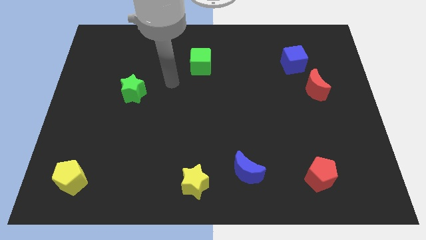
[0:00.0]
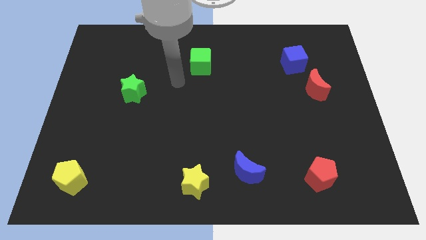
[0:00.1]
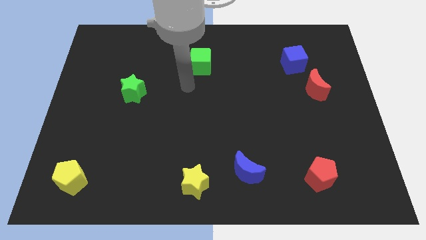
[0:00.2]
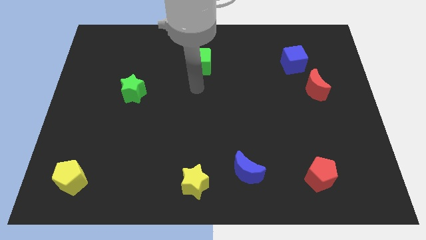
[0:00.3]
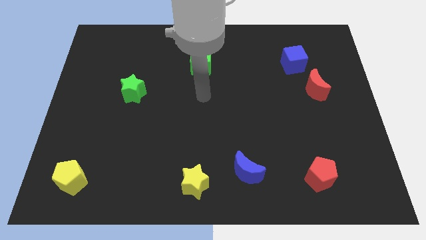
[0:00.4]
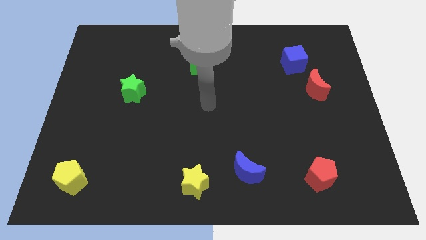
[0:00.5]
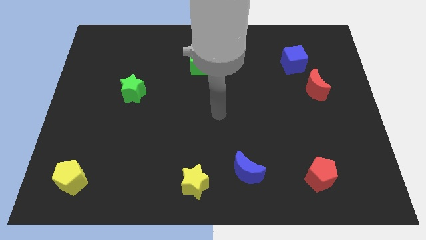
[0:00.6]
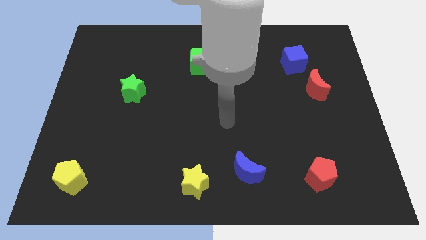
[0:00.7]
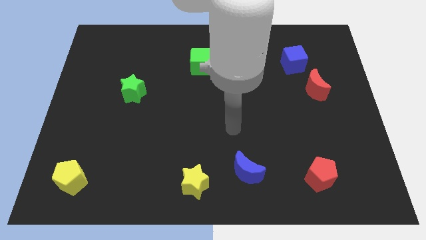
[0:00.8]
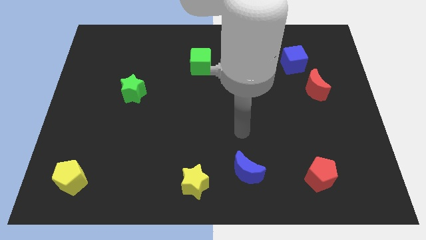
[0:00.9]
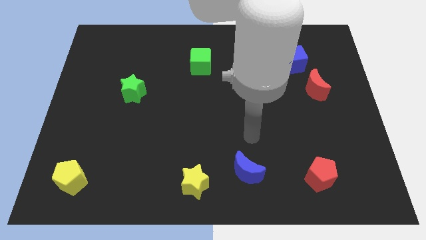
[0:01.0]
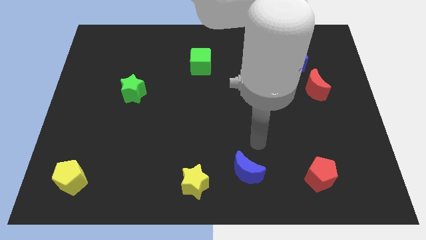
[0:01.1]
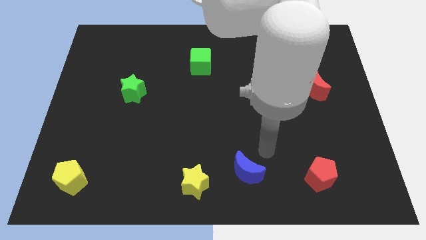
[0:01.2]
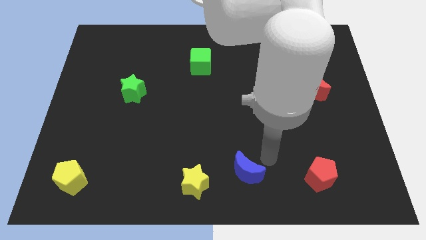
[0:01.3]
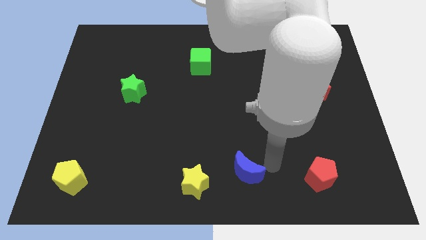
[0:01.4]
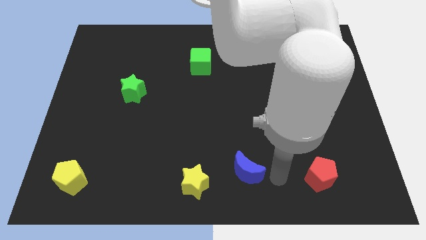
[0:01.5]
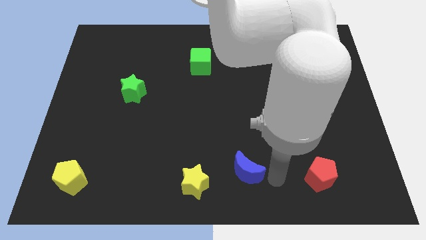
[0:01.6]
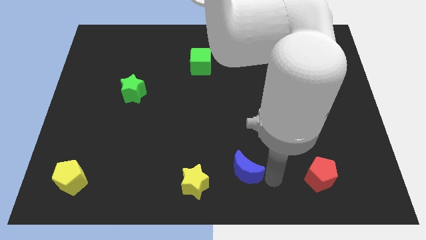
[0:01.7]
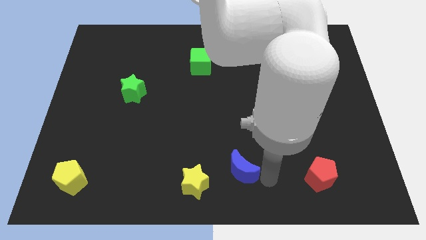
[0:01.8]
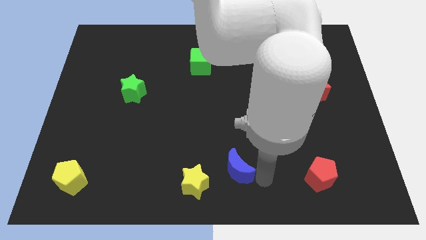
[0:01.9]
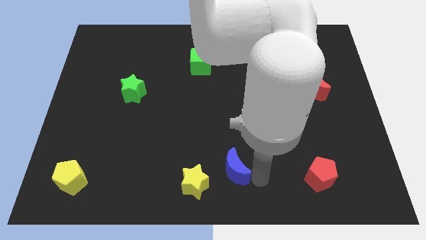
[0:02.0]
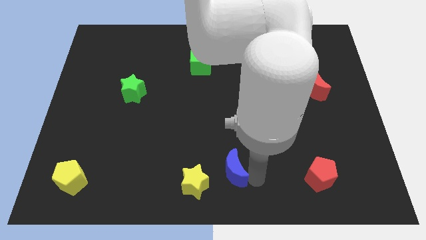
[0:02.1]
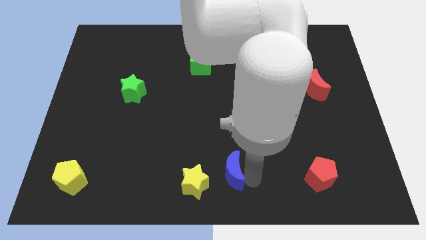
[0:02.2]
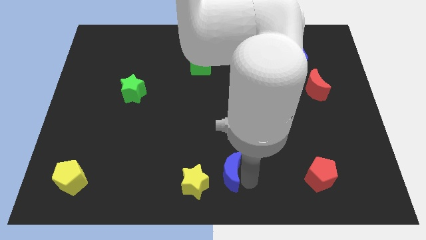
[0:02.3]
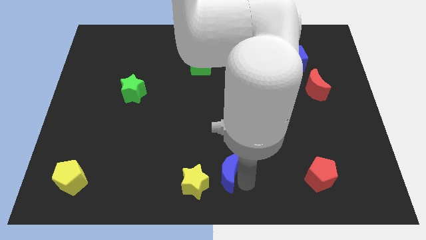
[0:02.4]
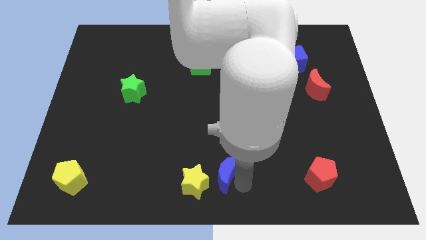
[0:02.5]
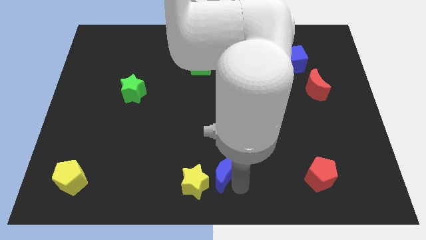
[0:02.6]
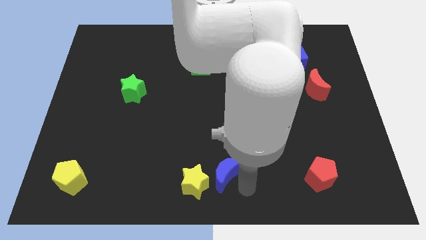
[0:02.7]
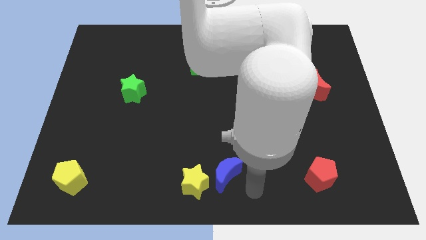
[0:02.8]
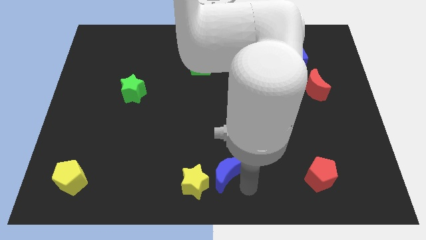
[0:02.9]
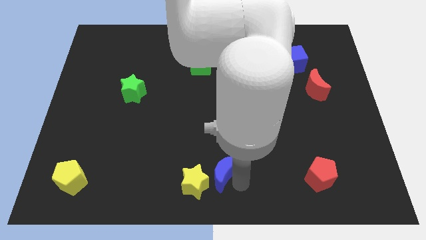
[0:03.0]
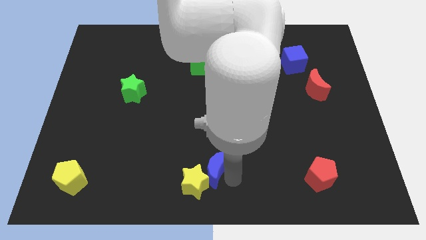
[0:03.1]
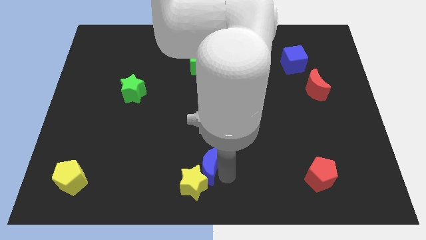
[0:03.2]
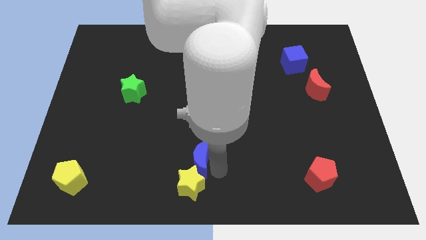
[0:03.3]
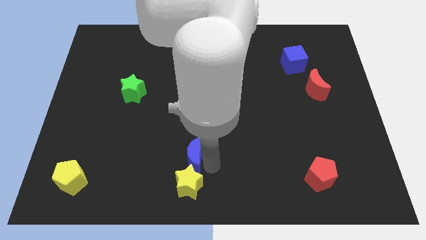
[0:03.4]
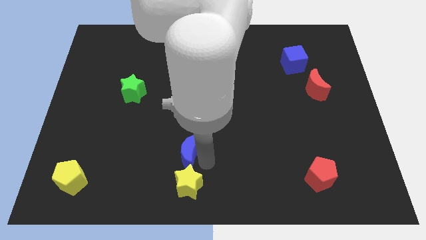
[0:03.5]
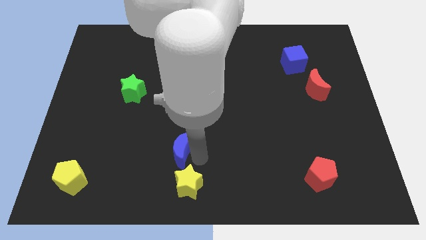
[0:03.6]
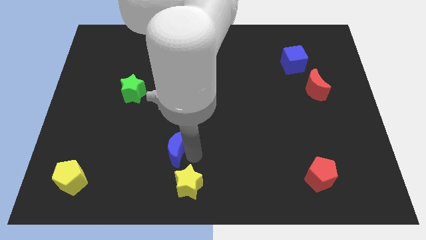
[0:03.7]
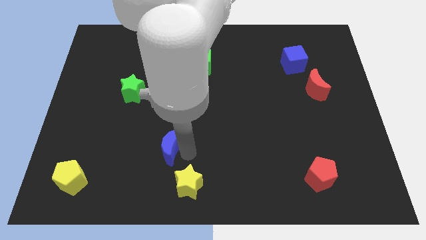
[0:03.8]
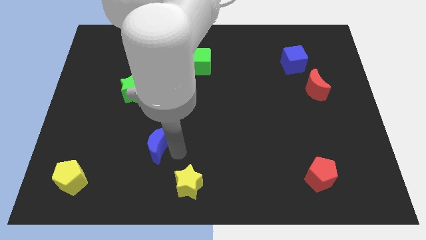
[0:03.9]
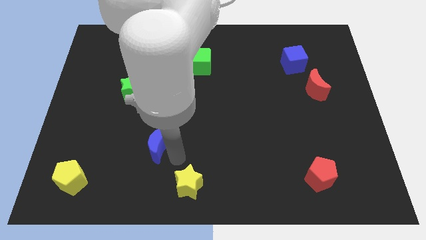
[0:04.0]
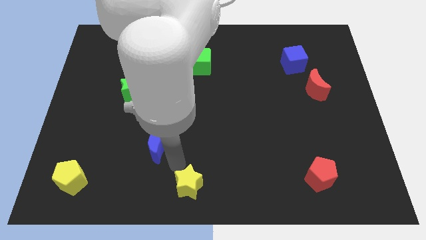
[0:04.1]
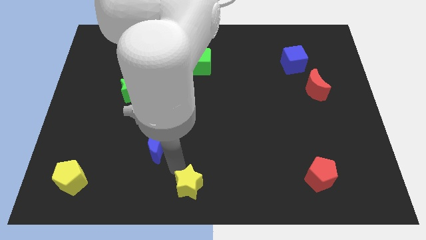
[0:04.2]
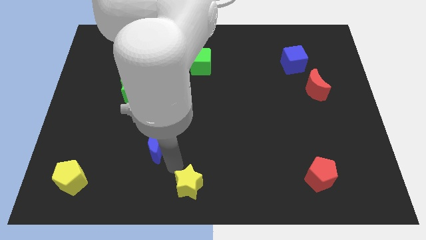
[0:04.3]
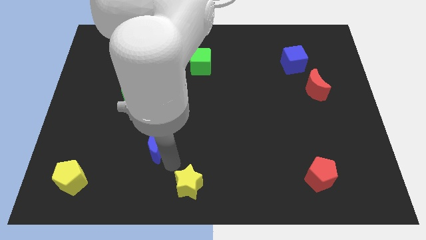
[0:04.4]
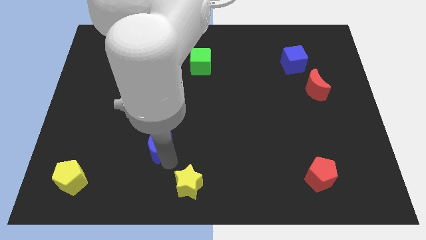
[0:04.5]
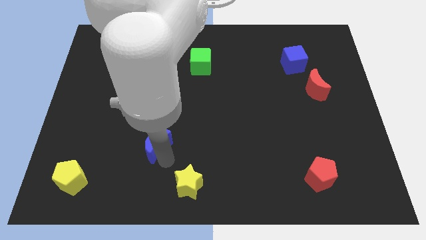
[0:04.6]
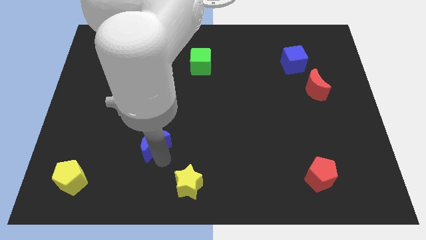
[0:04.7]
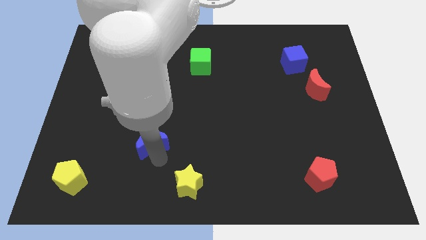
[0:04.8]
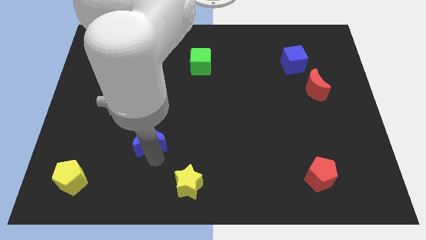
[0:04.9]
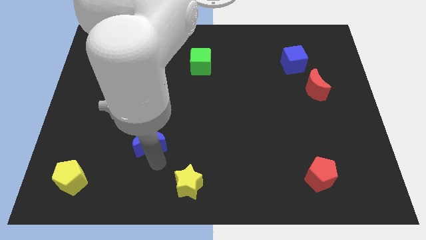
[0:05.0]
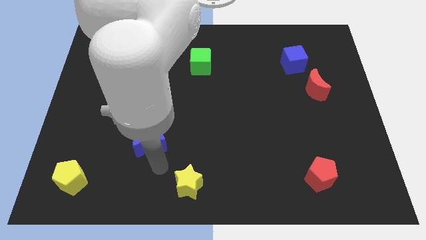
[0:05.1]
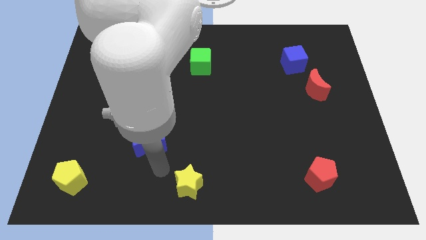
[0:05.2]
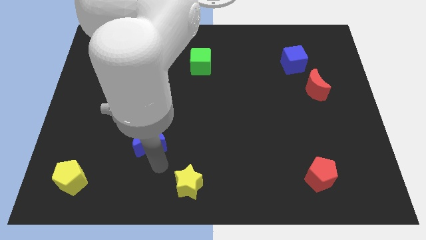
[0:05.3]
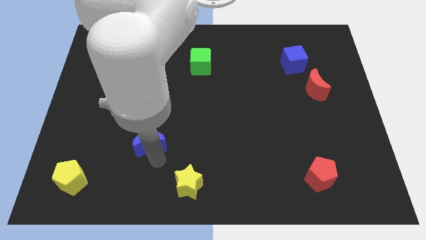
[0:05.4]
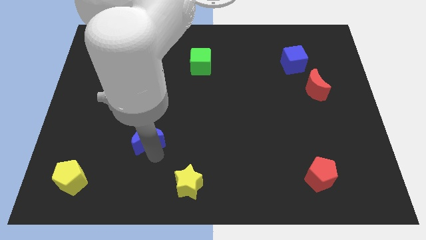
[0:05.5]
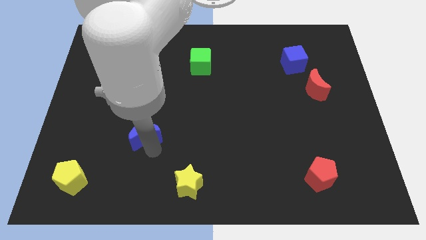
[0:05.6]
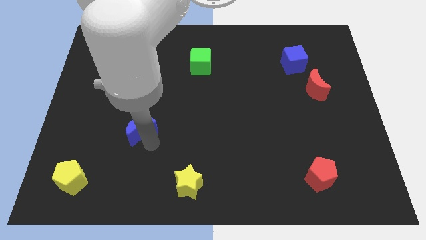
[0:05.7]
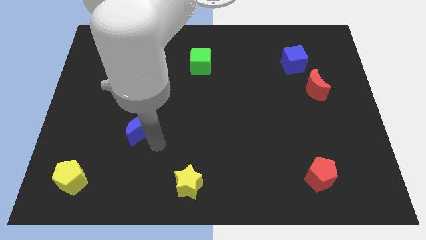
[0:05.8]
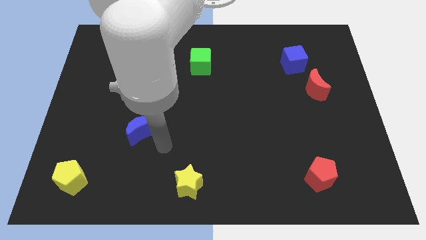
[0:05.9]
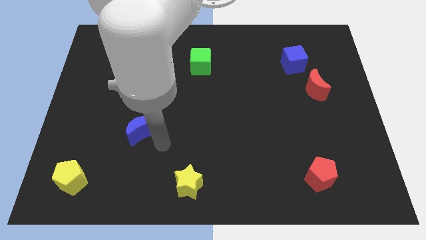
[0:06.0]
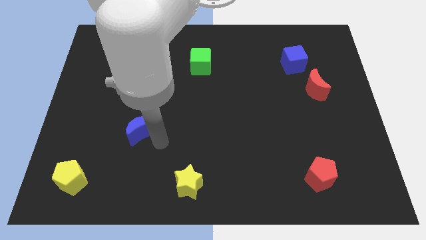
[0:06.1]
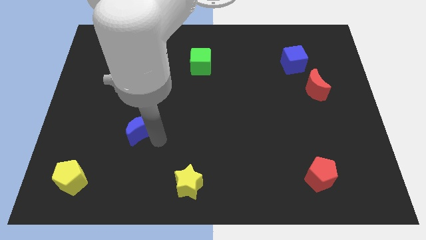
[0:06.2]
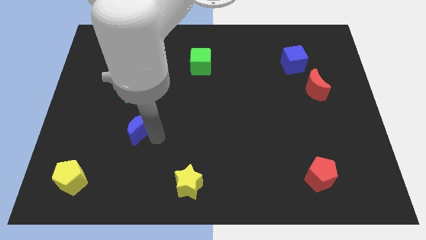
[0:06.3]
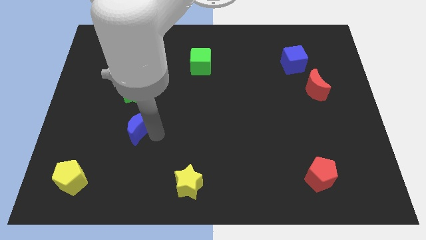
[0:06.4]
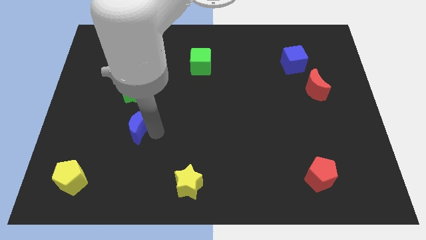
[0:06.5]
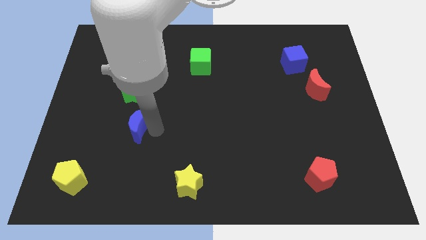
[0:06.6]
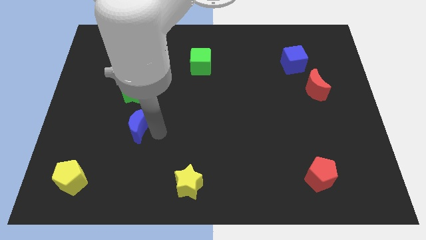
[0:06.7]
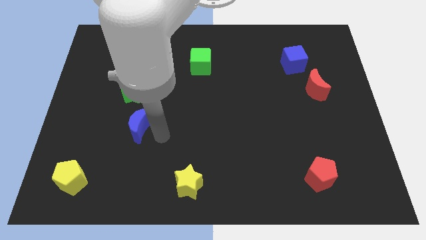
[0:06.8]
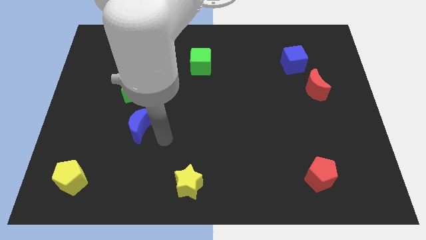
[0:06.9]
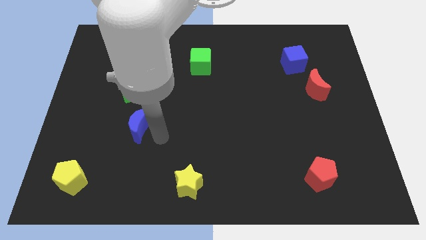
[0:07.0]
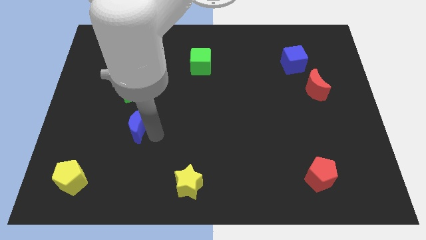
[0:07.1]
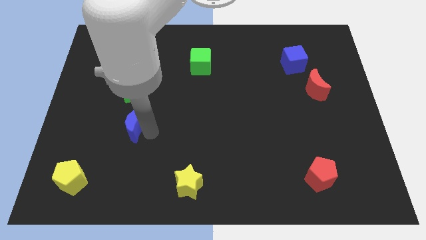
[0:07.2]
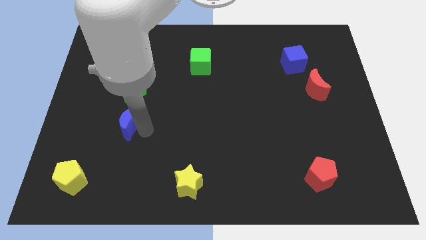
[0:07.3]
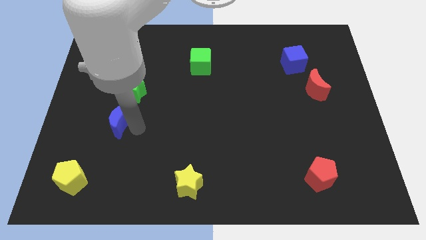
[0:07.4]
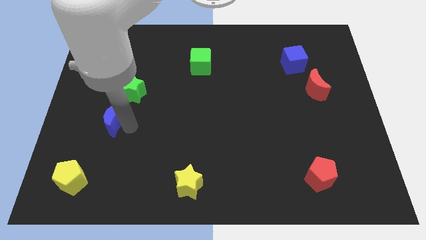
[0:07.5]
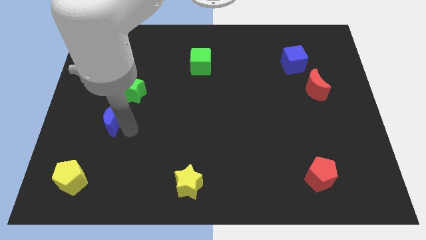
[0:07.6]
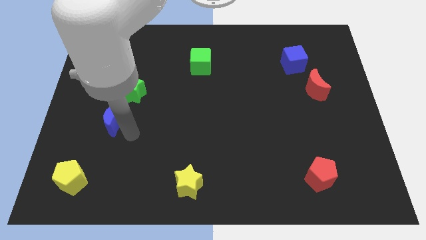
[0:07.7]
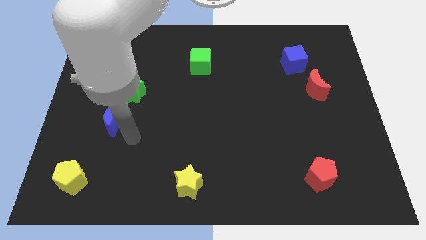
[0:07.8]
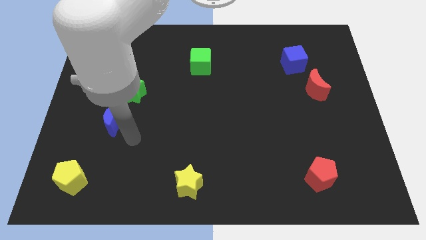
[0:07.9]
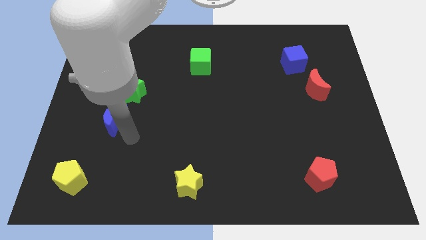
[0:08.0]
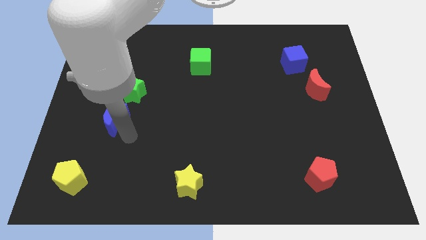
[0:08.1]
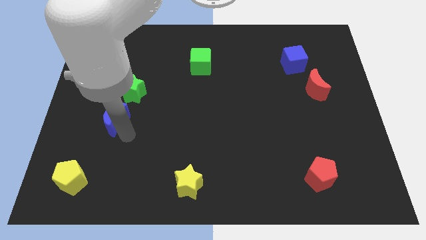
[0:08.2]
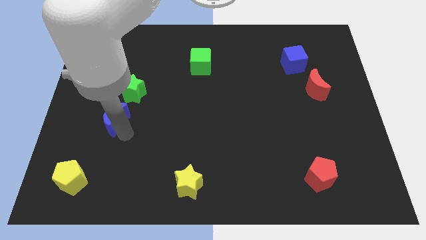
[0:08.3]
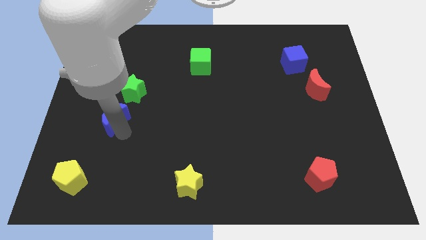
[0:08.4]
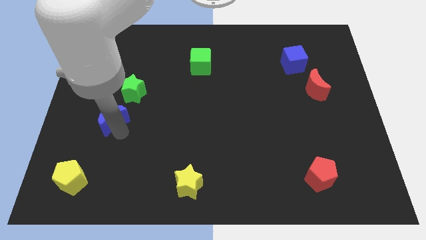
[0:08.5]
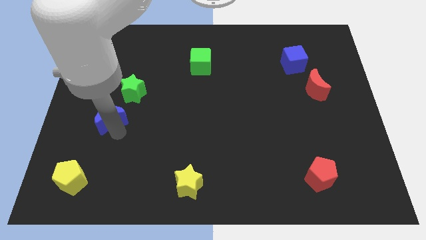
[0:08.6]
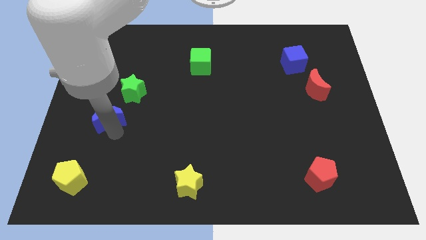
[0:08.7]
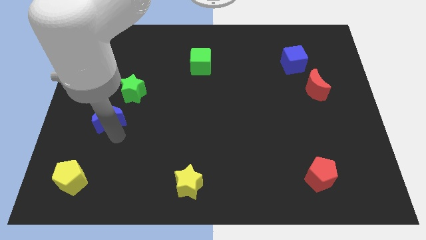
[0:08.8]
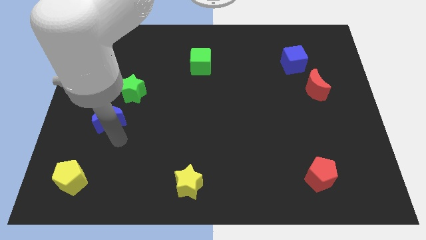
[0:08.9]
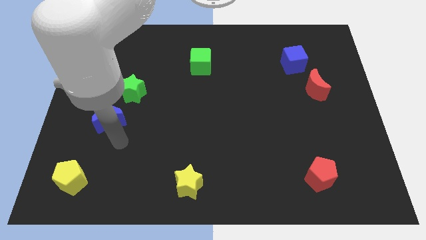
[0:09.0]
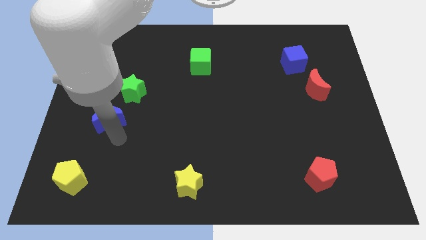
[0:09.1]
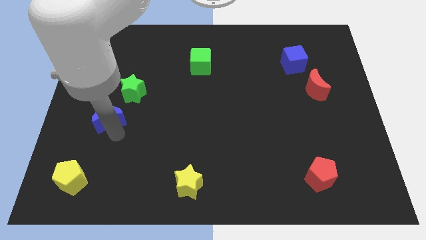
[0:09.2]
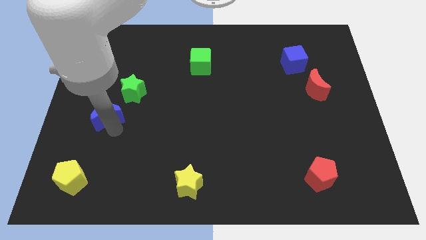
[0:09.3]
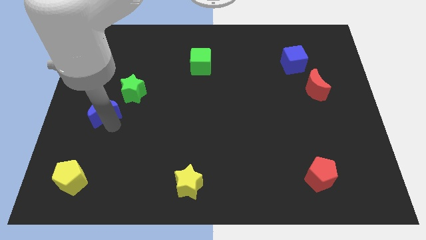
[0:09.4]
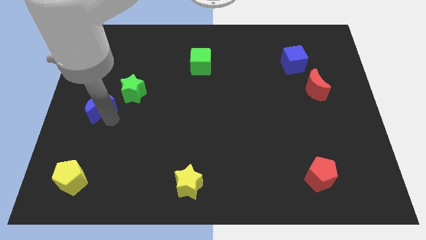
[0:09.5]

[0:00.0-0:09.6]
slide the blue moon to the left side of the board
